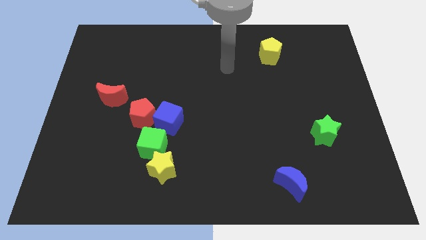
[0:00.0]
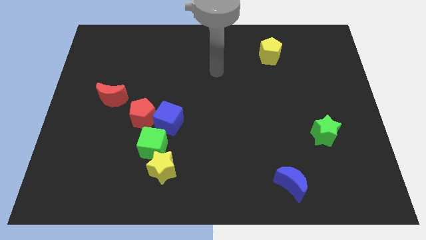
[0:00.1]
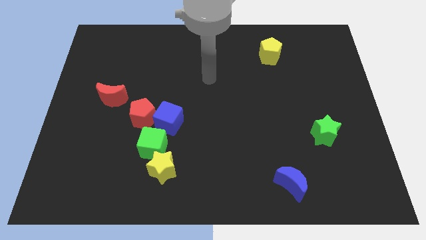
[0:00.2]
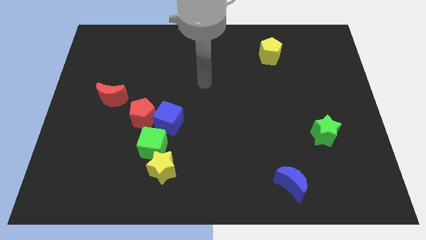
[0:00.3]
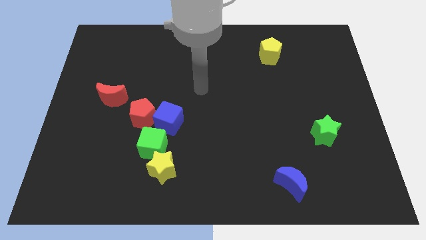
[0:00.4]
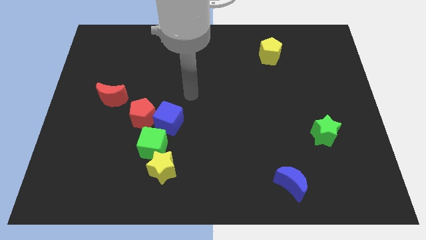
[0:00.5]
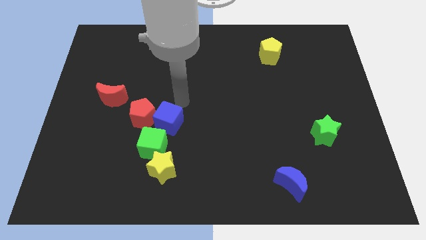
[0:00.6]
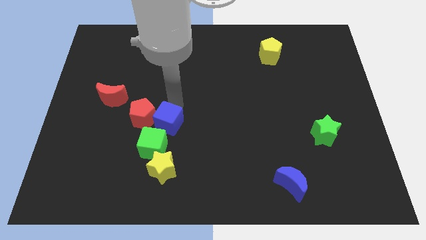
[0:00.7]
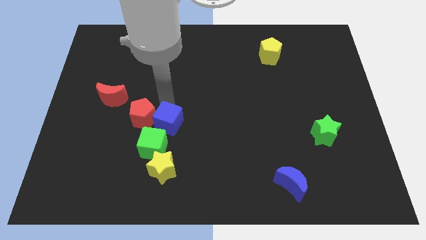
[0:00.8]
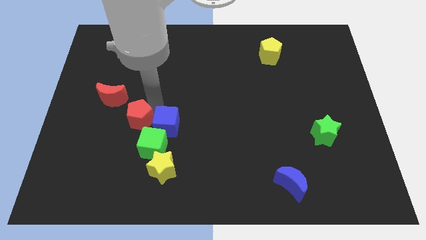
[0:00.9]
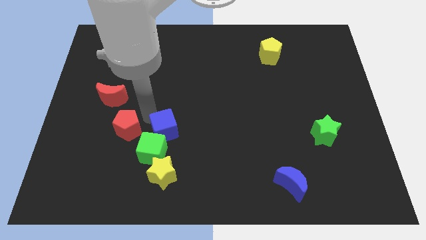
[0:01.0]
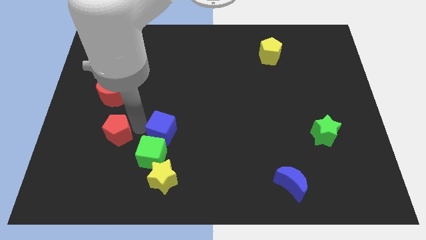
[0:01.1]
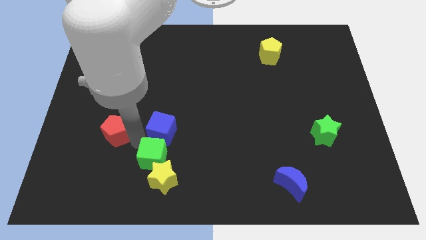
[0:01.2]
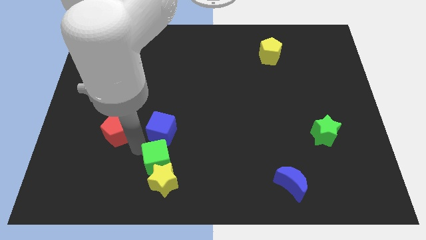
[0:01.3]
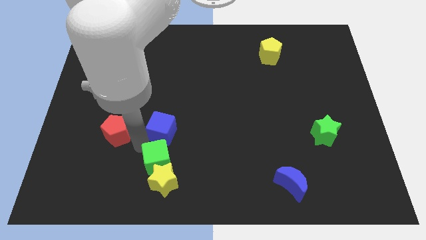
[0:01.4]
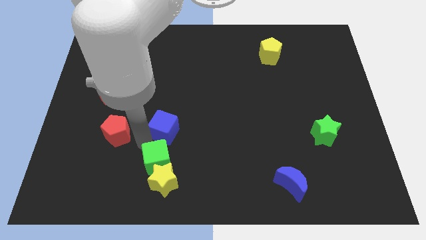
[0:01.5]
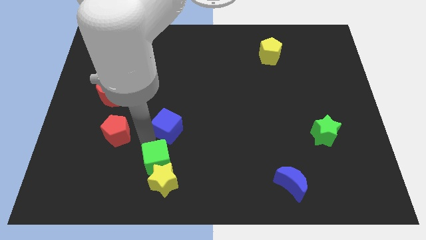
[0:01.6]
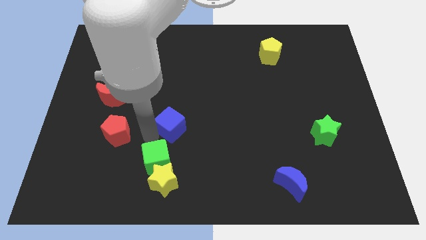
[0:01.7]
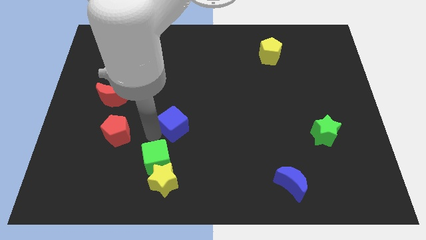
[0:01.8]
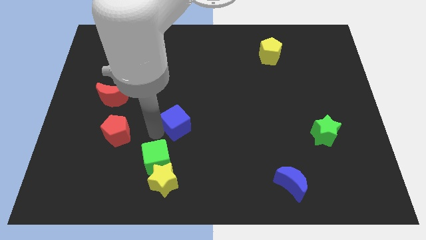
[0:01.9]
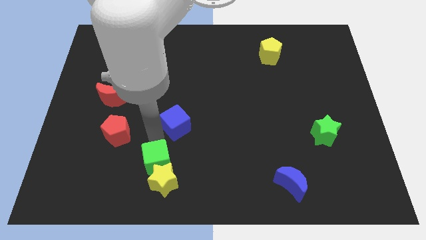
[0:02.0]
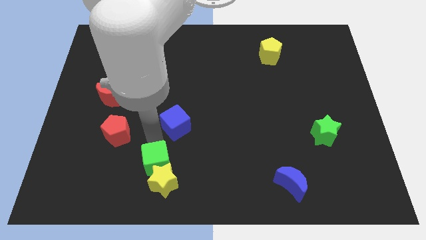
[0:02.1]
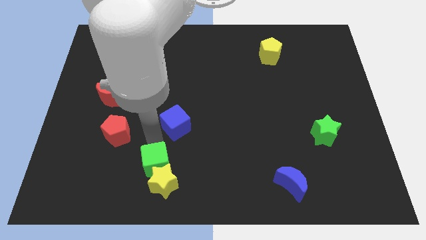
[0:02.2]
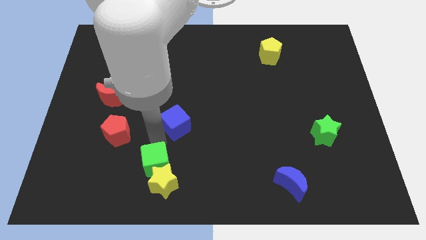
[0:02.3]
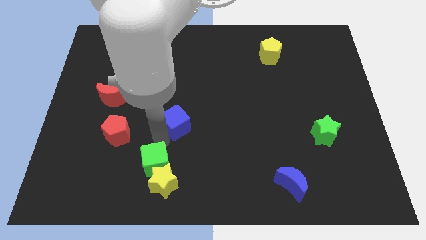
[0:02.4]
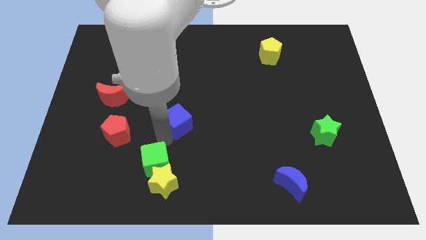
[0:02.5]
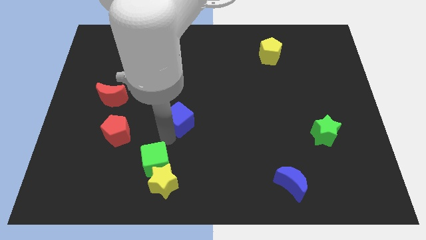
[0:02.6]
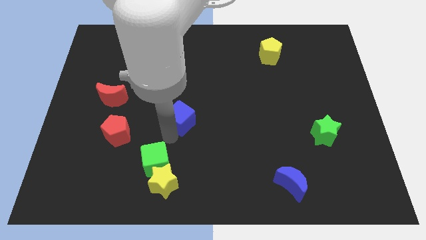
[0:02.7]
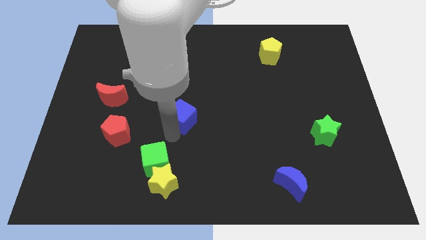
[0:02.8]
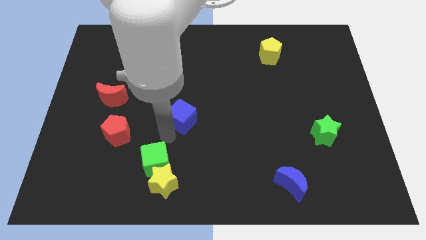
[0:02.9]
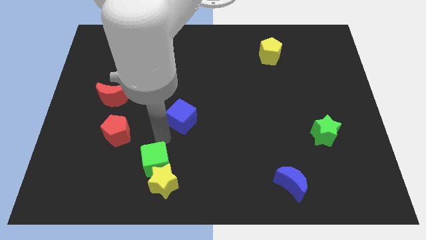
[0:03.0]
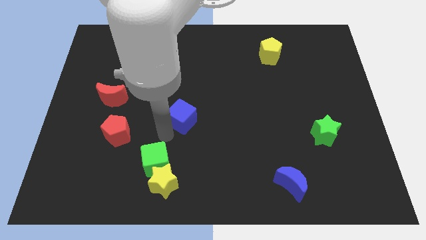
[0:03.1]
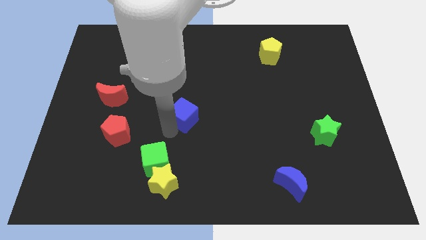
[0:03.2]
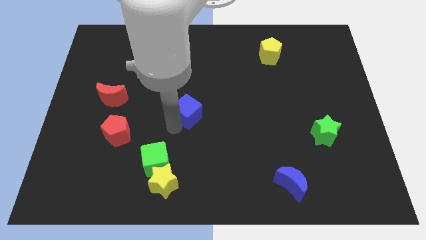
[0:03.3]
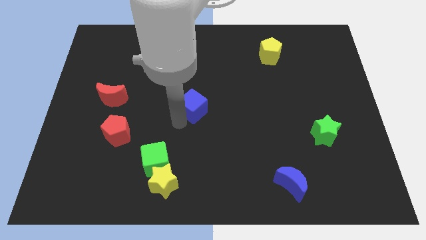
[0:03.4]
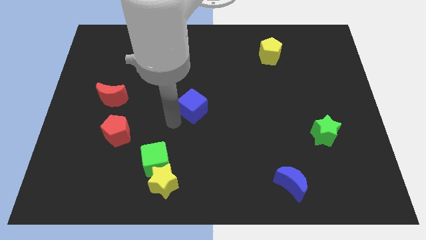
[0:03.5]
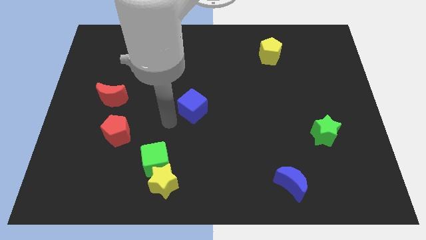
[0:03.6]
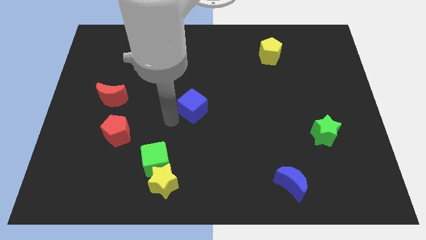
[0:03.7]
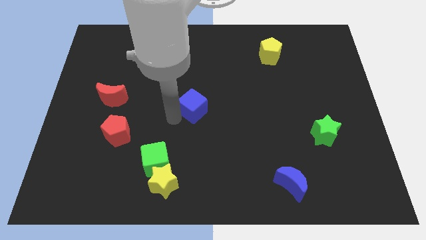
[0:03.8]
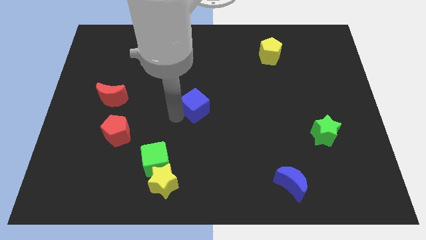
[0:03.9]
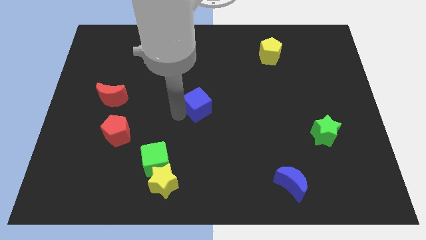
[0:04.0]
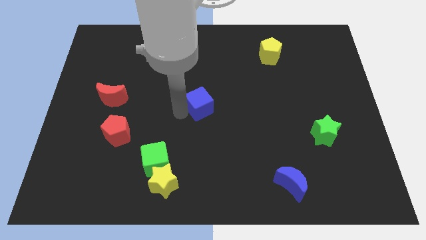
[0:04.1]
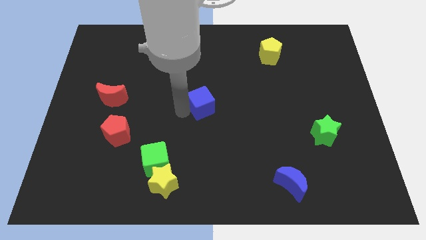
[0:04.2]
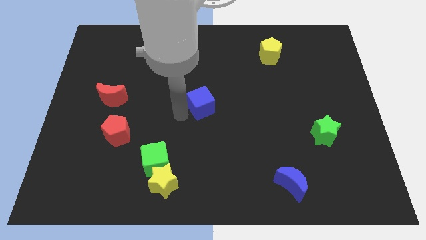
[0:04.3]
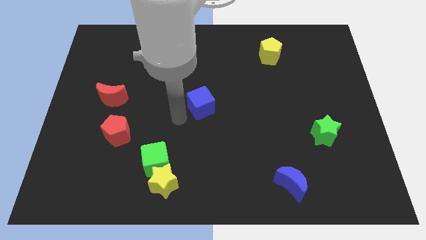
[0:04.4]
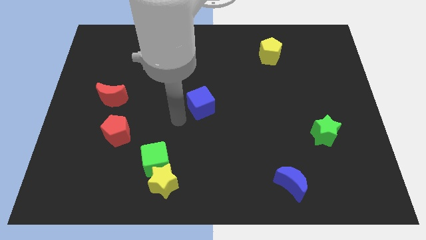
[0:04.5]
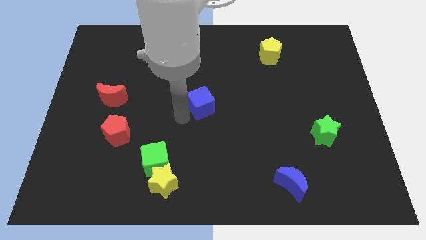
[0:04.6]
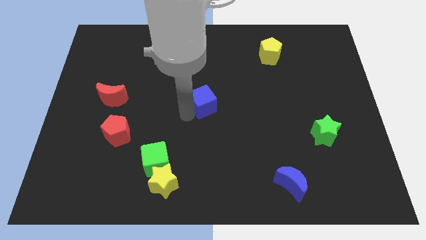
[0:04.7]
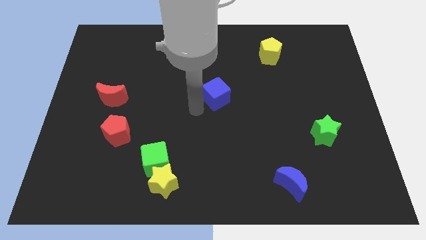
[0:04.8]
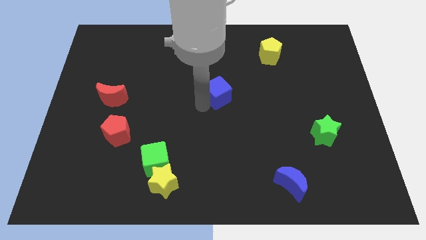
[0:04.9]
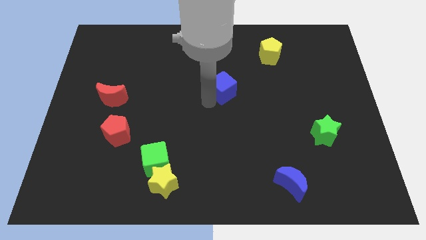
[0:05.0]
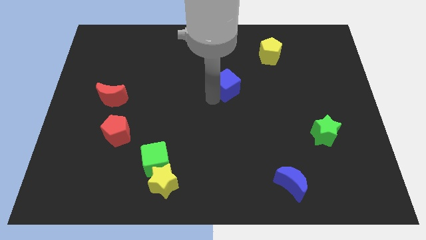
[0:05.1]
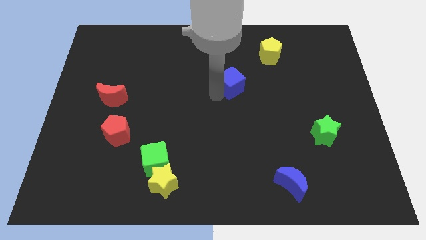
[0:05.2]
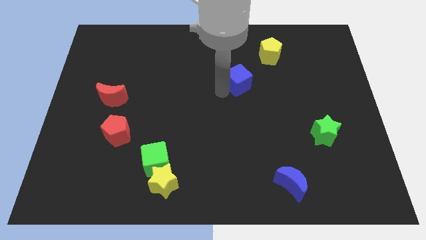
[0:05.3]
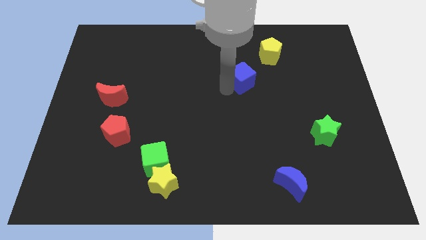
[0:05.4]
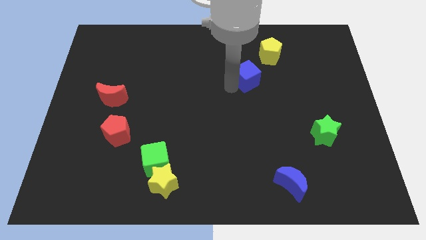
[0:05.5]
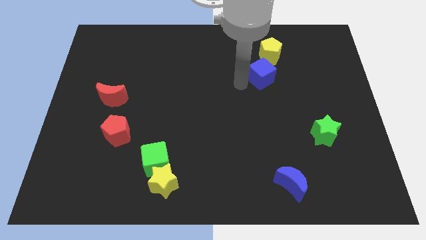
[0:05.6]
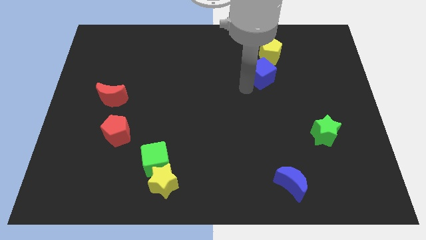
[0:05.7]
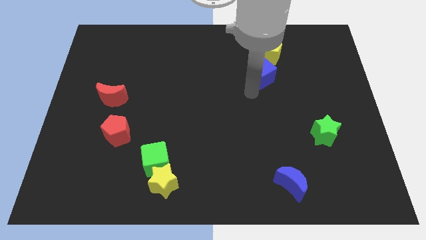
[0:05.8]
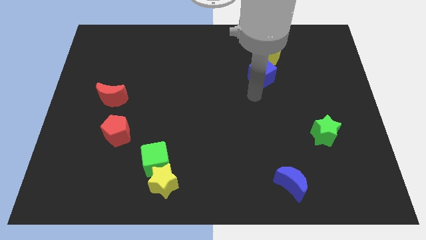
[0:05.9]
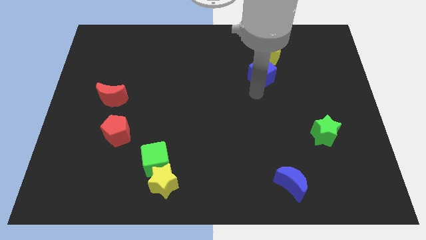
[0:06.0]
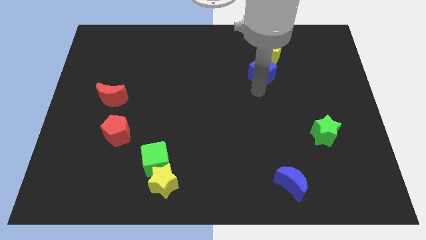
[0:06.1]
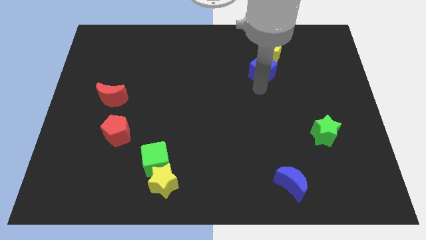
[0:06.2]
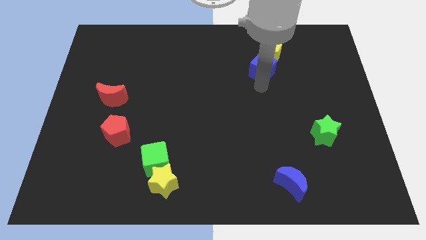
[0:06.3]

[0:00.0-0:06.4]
move the blue cube to the yellow pentagon

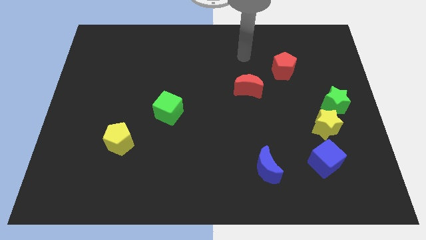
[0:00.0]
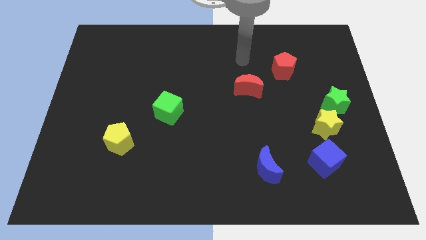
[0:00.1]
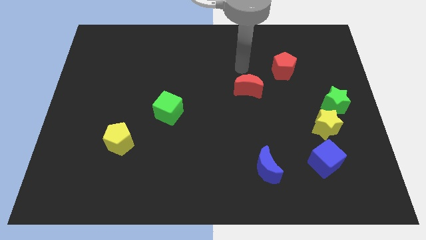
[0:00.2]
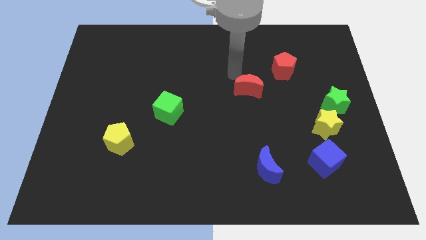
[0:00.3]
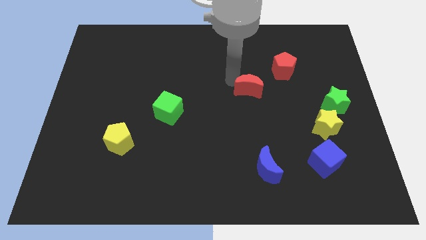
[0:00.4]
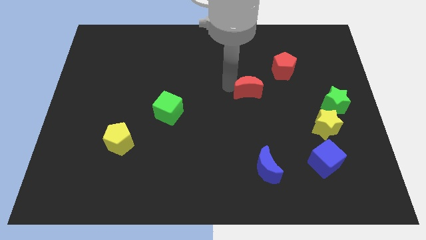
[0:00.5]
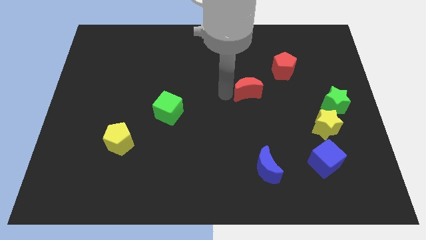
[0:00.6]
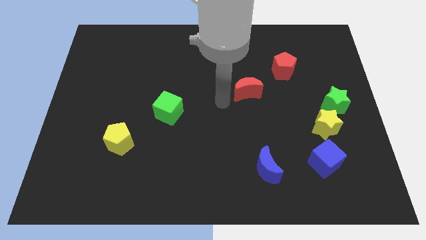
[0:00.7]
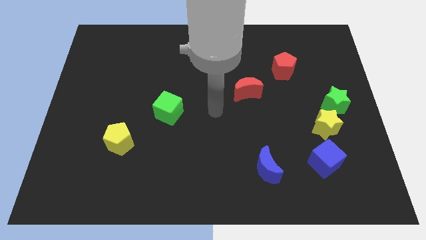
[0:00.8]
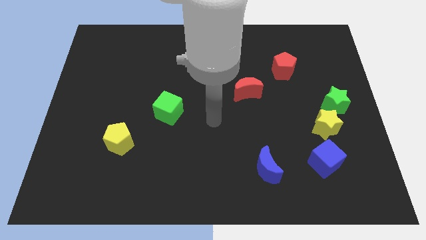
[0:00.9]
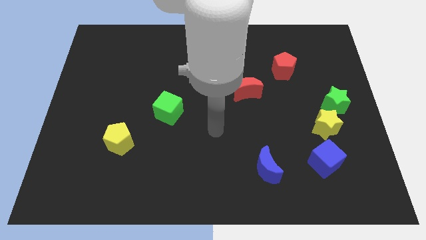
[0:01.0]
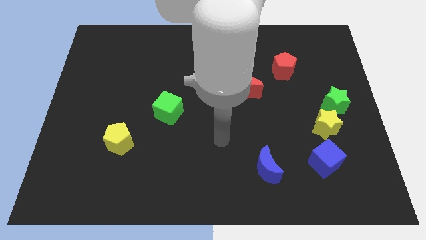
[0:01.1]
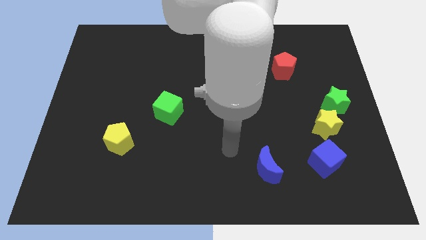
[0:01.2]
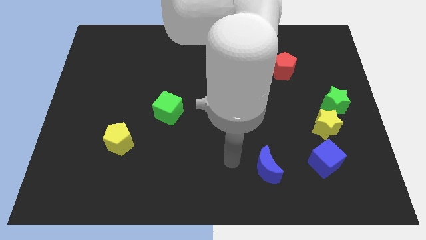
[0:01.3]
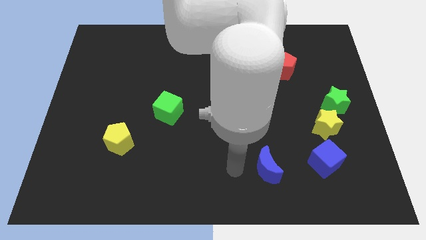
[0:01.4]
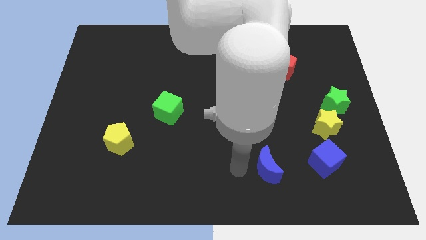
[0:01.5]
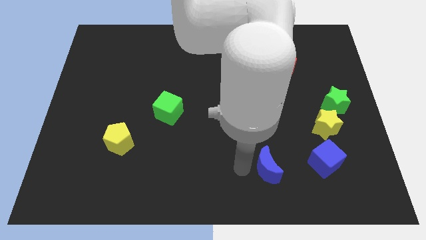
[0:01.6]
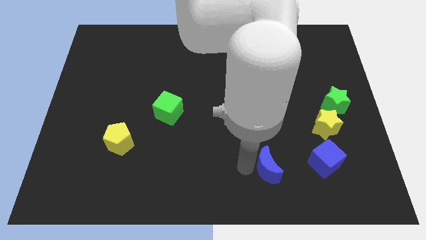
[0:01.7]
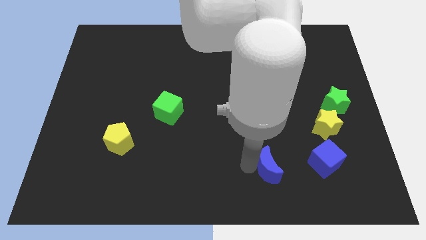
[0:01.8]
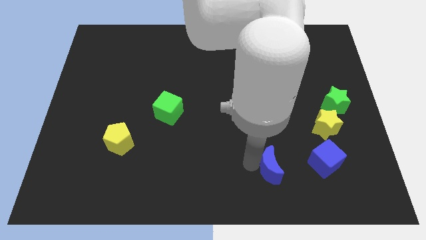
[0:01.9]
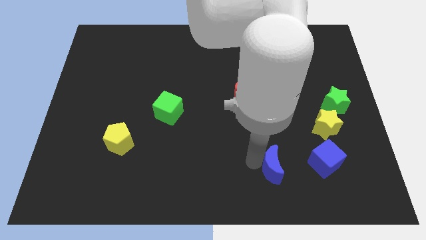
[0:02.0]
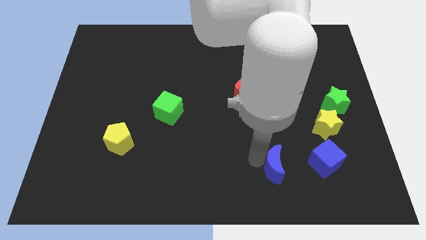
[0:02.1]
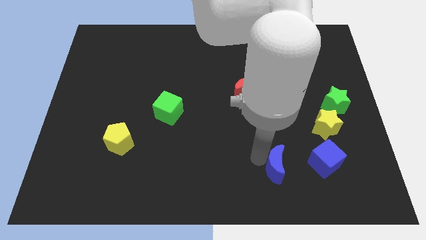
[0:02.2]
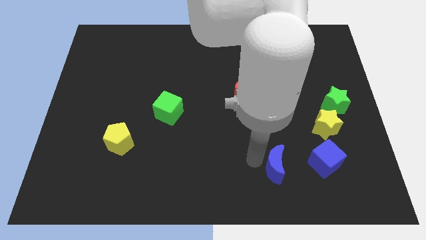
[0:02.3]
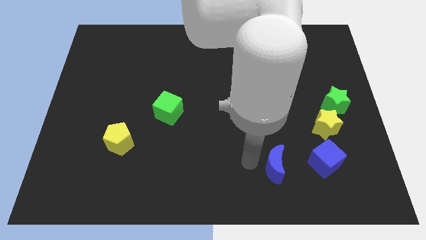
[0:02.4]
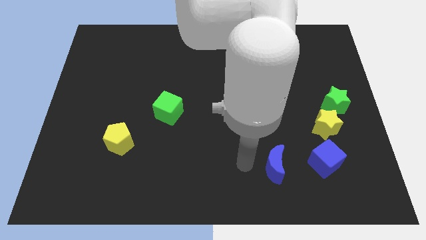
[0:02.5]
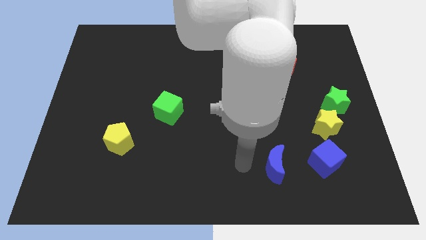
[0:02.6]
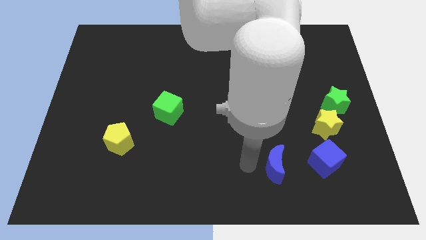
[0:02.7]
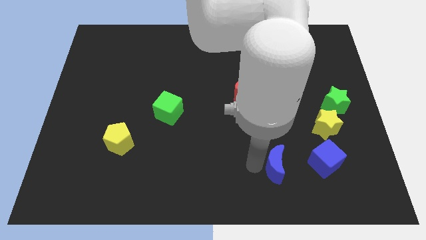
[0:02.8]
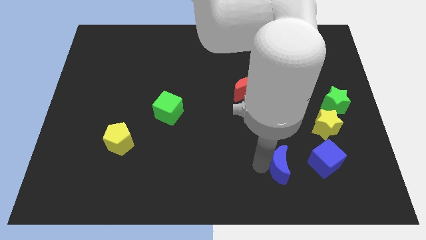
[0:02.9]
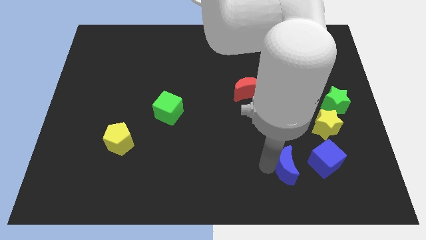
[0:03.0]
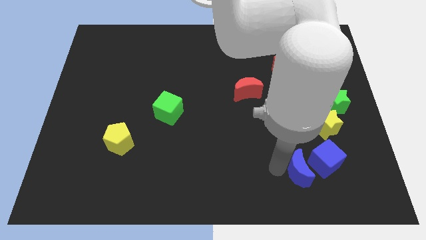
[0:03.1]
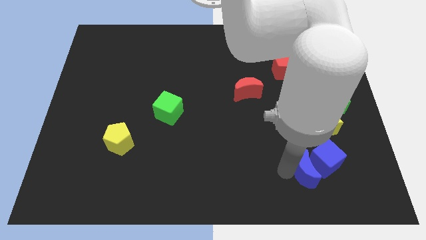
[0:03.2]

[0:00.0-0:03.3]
push the blue moon towards the blue cube
